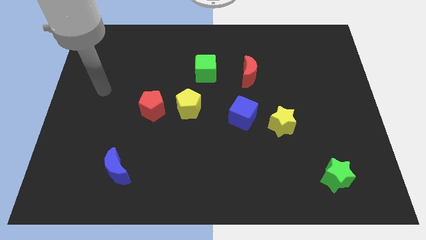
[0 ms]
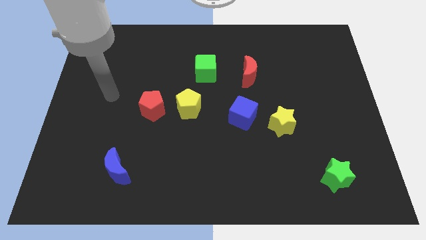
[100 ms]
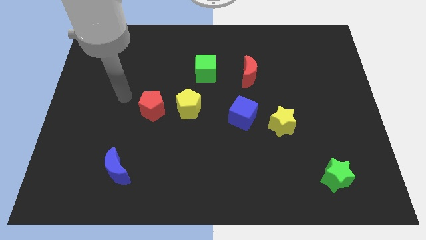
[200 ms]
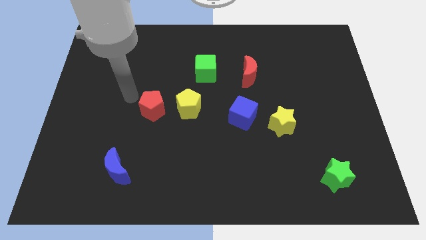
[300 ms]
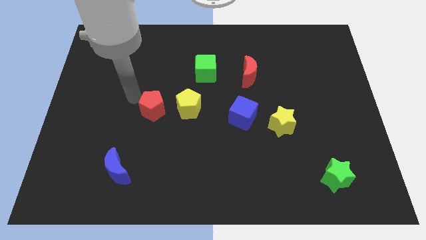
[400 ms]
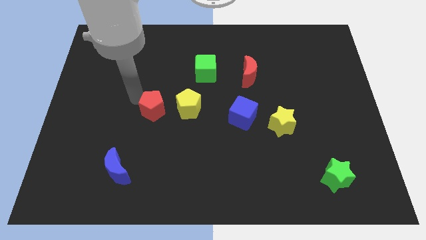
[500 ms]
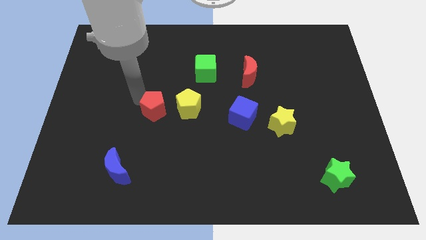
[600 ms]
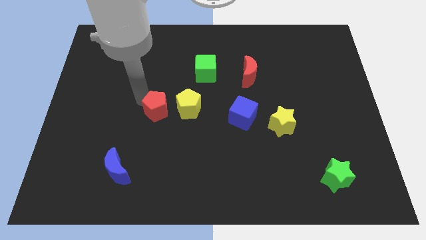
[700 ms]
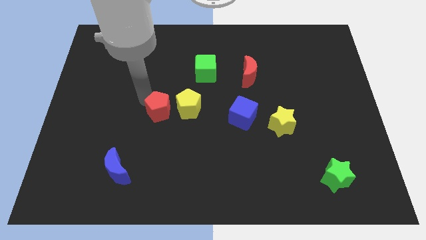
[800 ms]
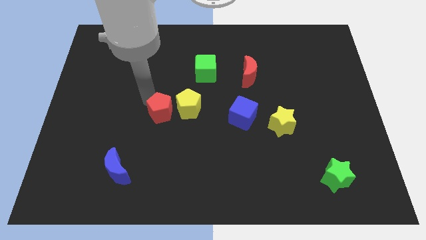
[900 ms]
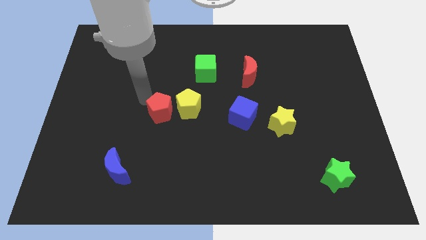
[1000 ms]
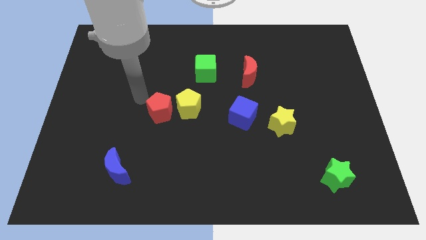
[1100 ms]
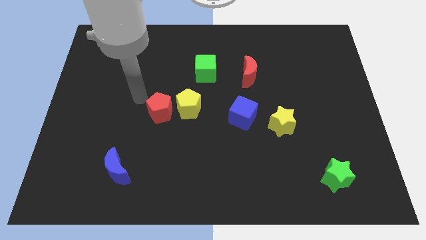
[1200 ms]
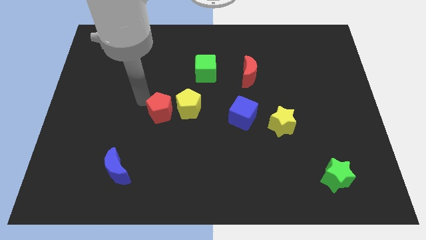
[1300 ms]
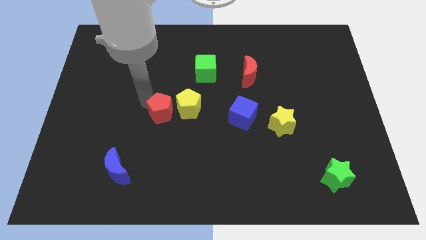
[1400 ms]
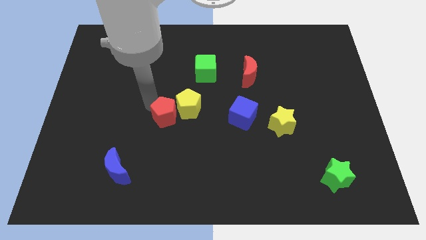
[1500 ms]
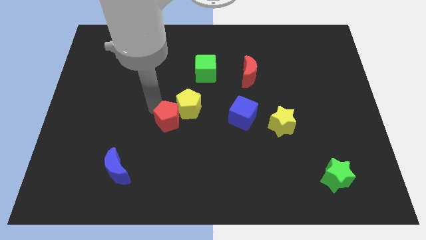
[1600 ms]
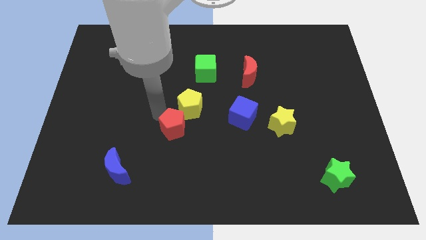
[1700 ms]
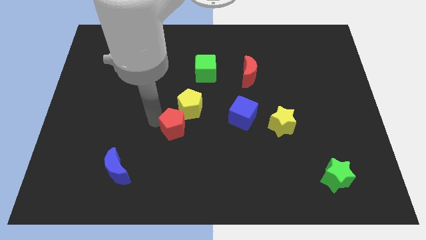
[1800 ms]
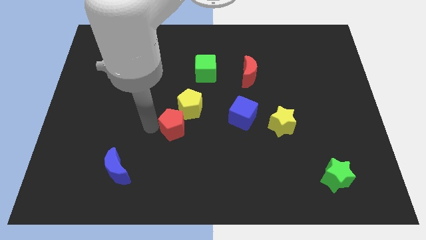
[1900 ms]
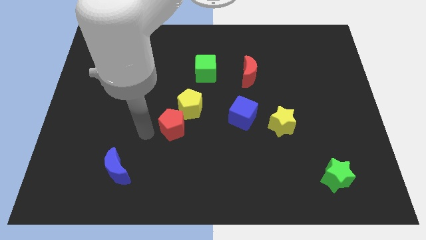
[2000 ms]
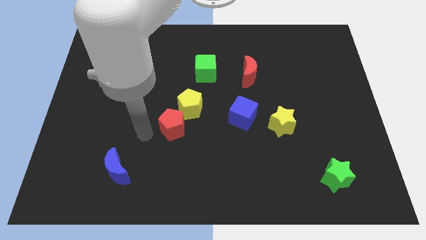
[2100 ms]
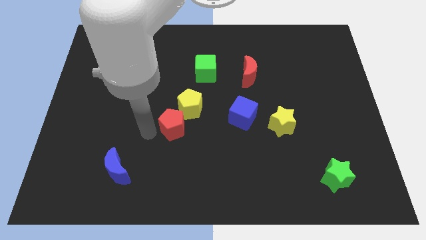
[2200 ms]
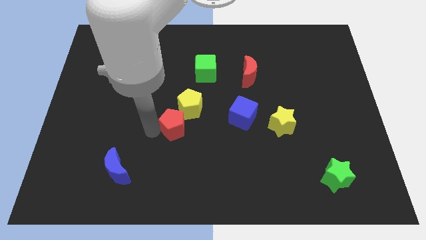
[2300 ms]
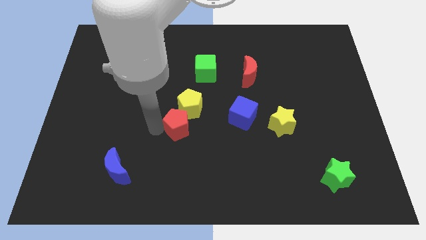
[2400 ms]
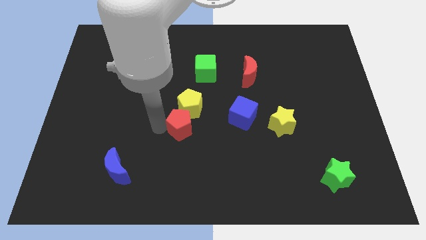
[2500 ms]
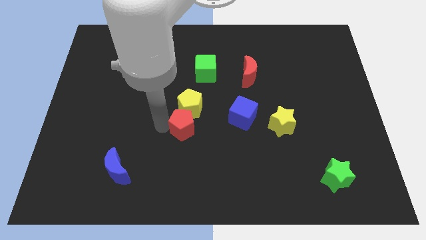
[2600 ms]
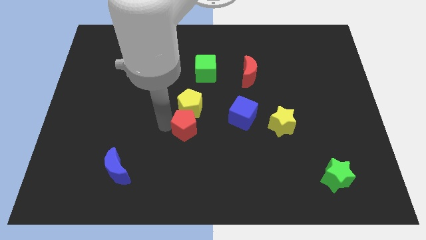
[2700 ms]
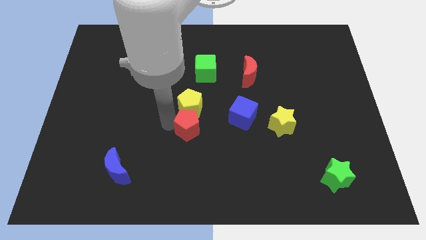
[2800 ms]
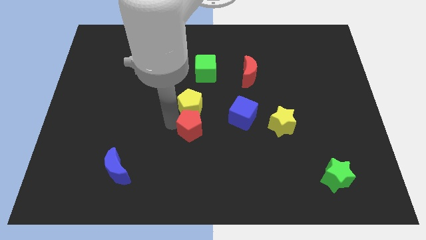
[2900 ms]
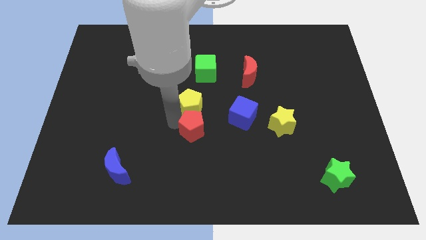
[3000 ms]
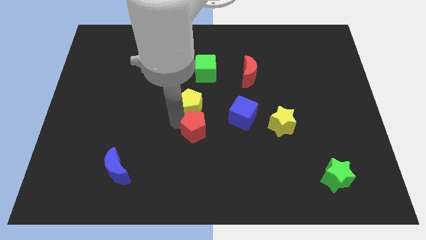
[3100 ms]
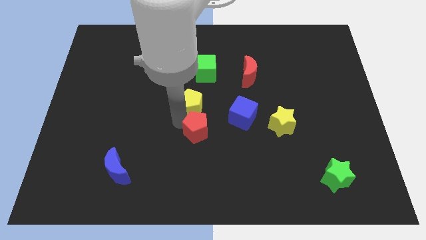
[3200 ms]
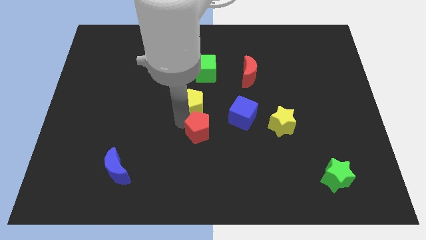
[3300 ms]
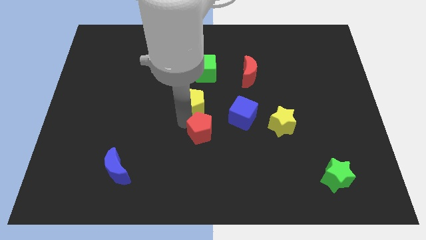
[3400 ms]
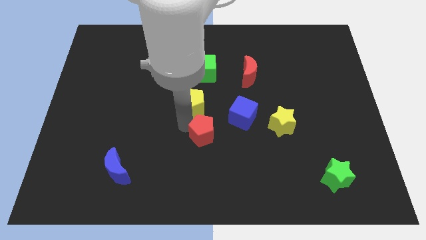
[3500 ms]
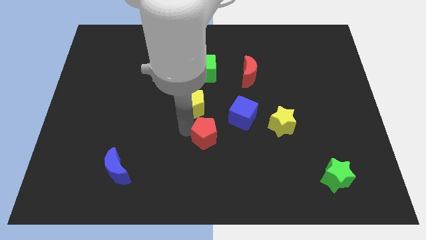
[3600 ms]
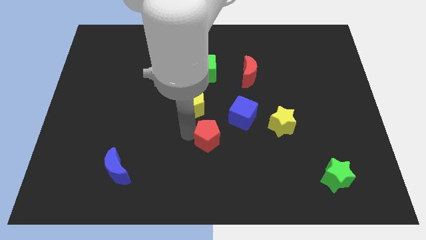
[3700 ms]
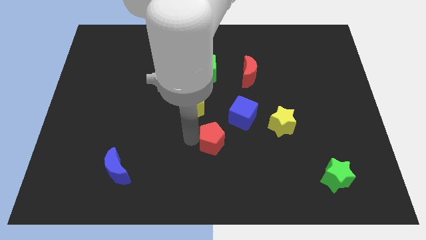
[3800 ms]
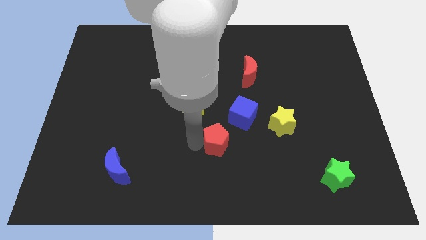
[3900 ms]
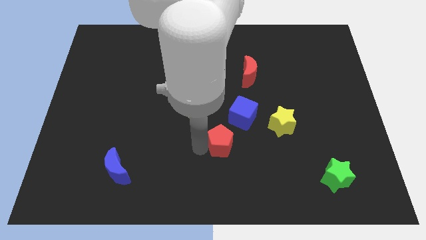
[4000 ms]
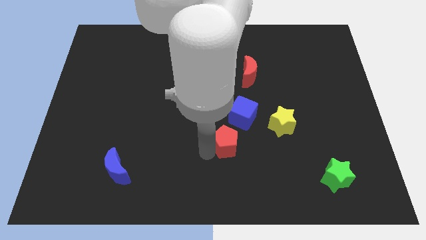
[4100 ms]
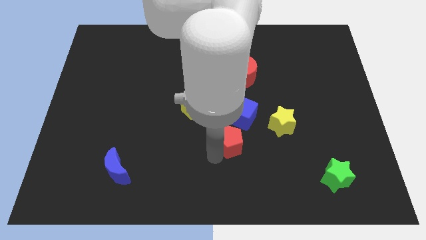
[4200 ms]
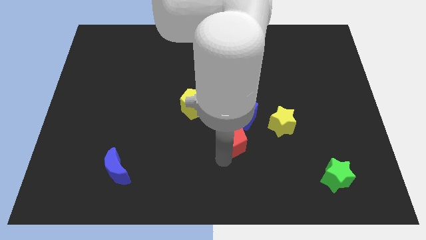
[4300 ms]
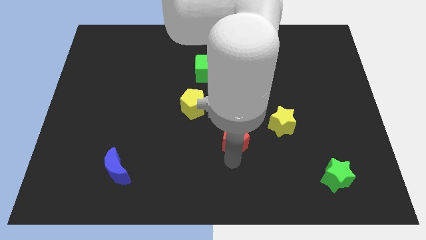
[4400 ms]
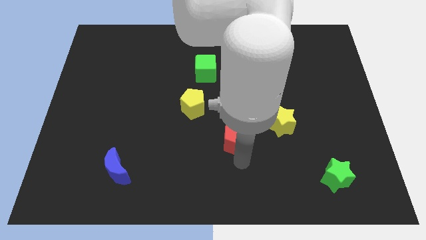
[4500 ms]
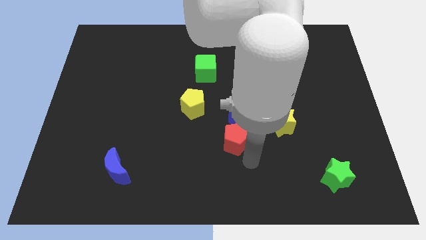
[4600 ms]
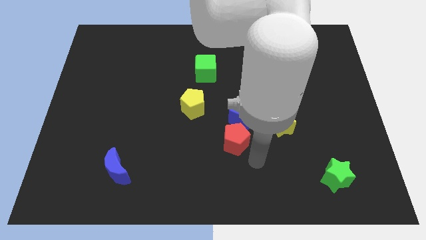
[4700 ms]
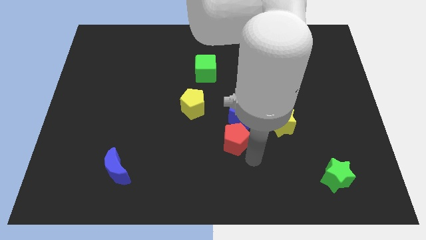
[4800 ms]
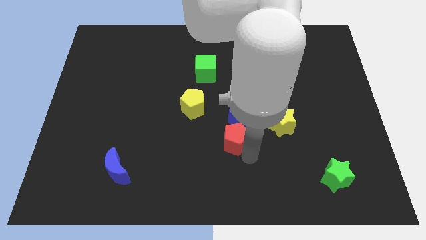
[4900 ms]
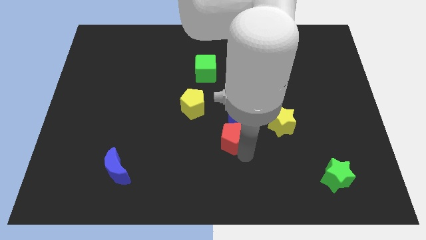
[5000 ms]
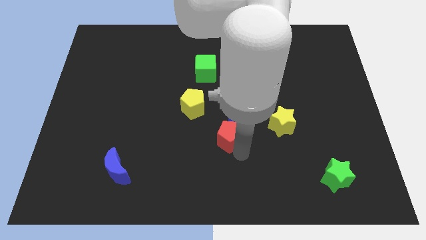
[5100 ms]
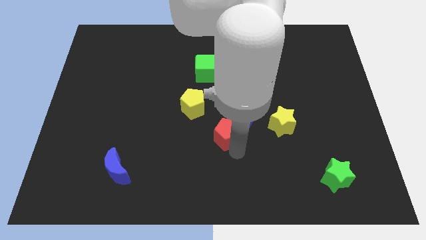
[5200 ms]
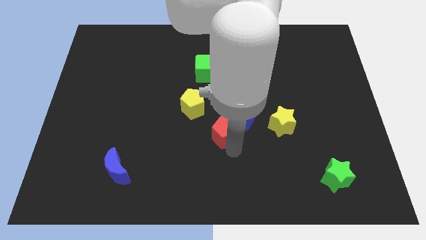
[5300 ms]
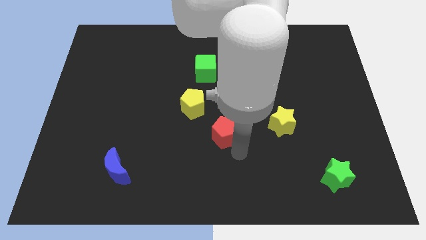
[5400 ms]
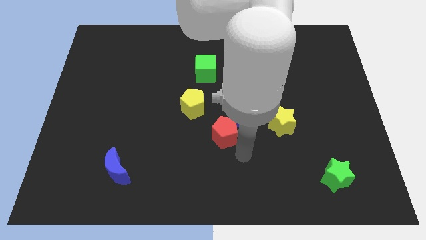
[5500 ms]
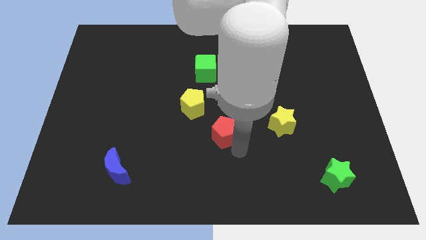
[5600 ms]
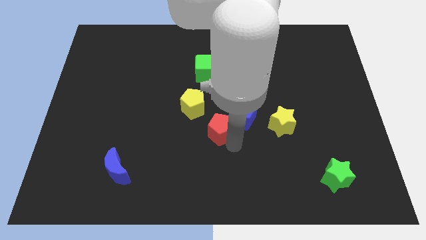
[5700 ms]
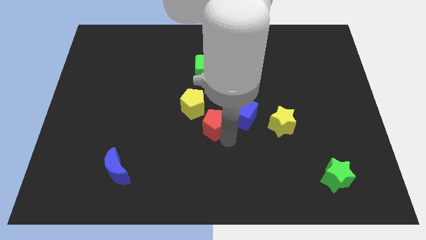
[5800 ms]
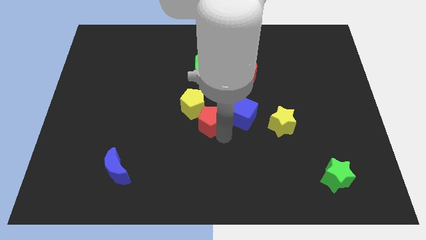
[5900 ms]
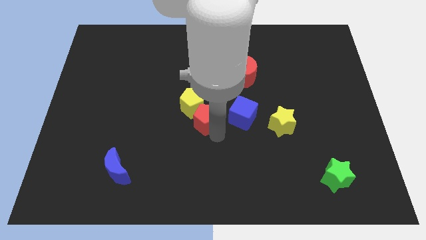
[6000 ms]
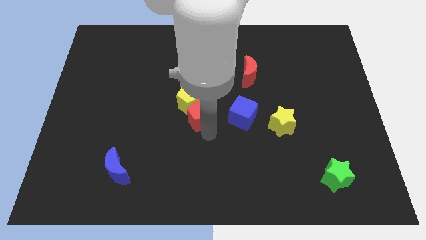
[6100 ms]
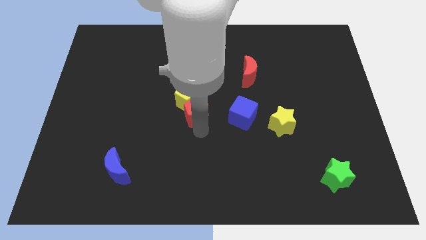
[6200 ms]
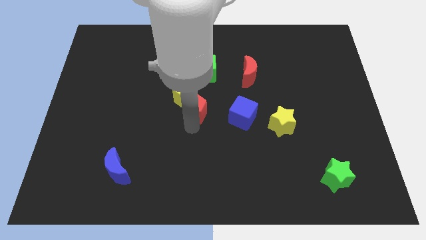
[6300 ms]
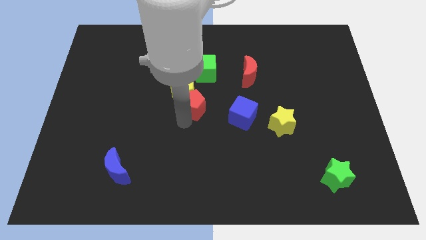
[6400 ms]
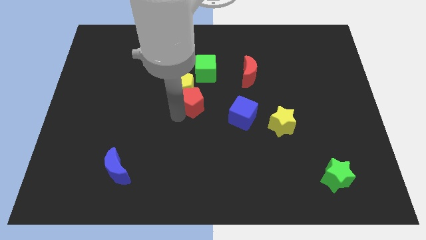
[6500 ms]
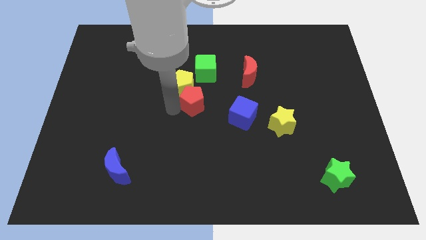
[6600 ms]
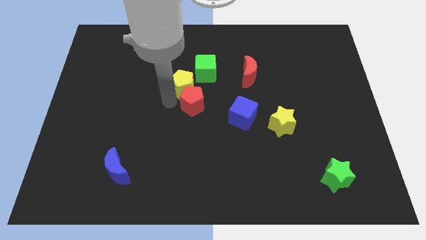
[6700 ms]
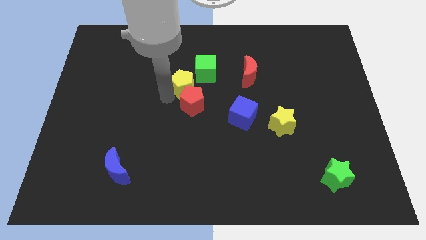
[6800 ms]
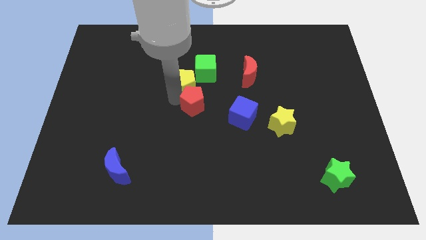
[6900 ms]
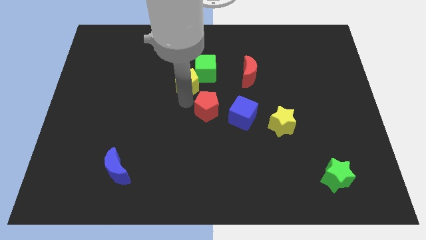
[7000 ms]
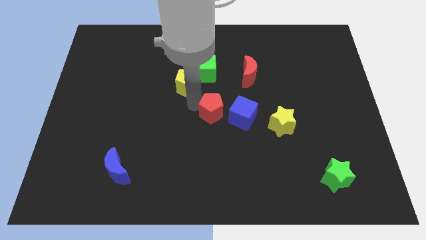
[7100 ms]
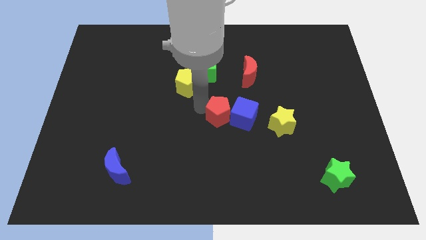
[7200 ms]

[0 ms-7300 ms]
push the red pentagon towards the blue cube

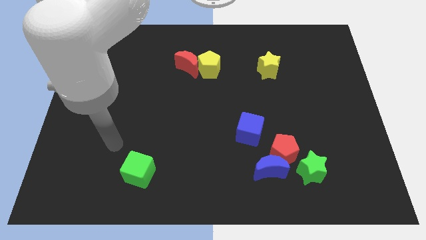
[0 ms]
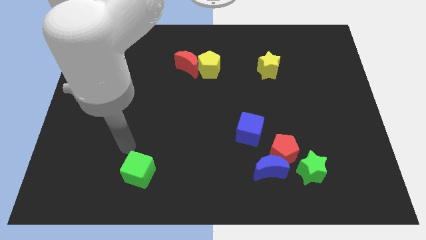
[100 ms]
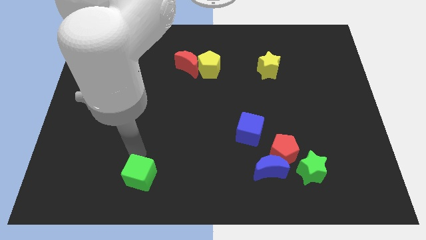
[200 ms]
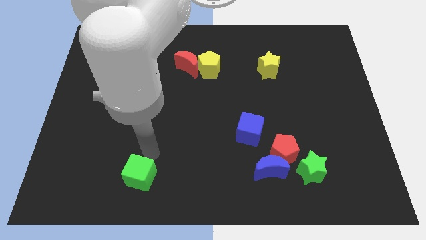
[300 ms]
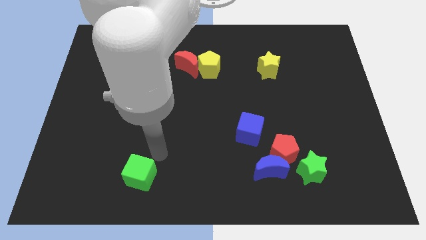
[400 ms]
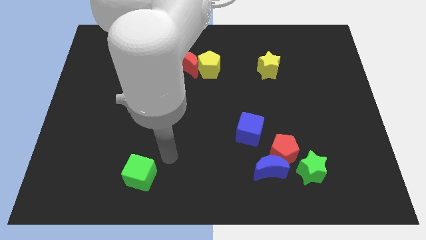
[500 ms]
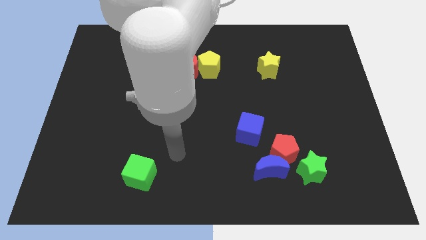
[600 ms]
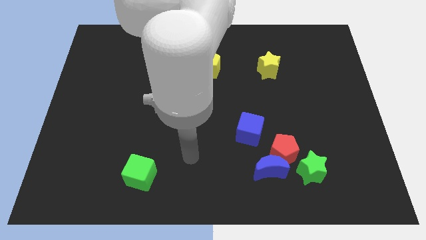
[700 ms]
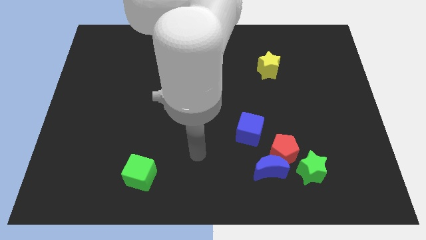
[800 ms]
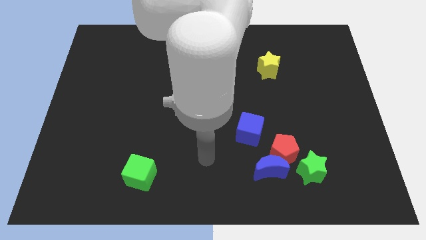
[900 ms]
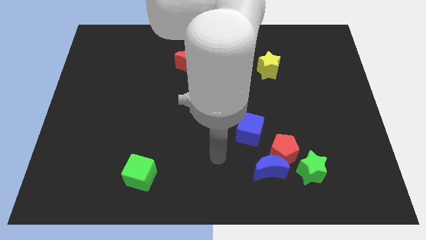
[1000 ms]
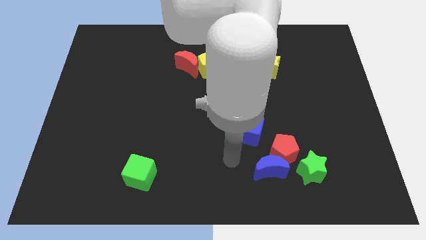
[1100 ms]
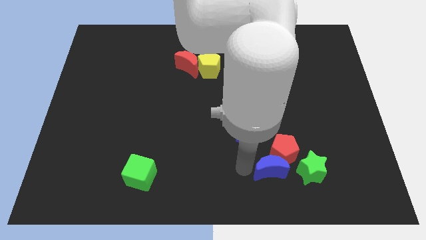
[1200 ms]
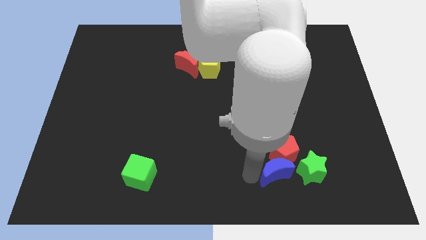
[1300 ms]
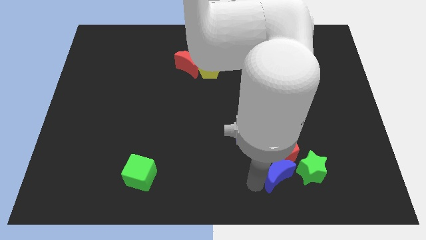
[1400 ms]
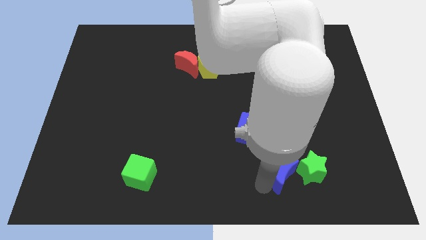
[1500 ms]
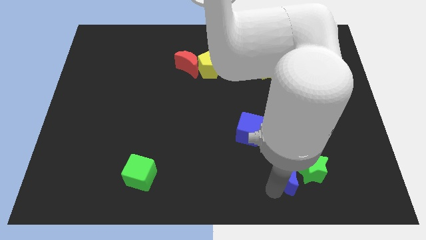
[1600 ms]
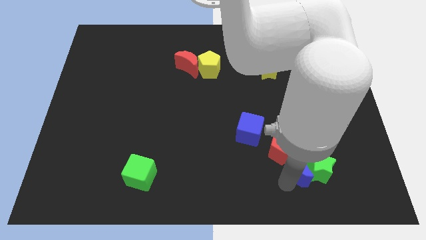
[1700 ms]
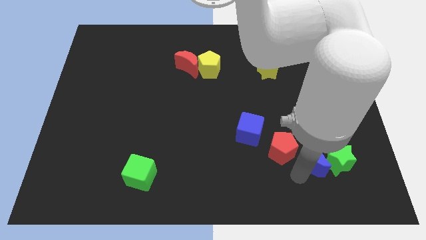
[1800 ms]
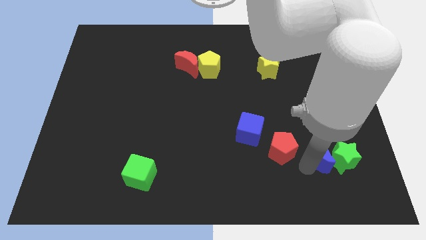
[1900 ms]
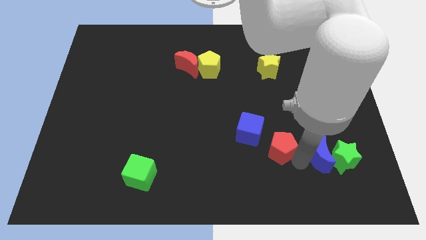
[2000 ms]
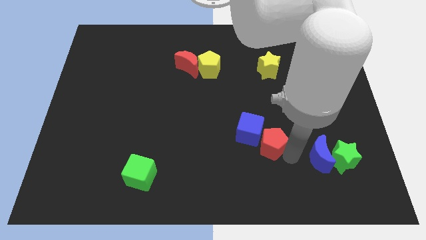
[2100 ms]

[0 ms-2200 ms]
move the red pentagon towards the blue cube
